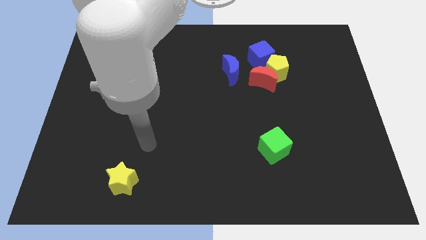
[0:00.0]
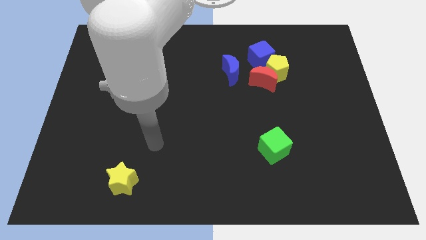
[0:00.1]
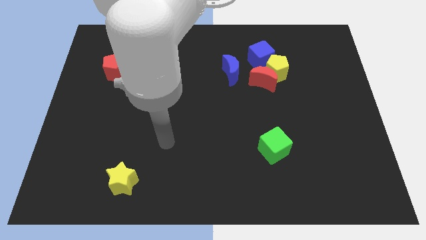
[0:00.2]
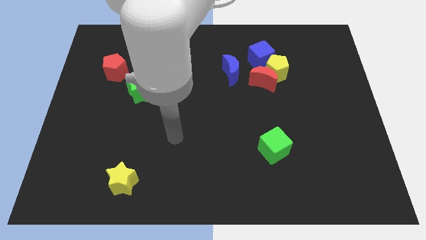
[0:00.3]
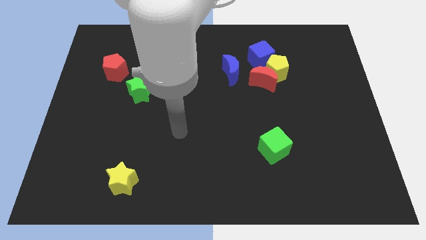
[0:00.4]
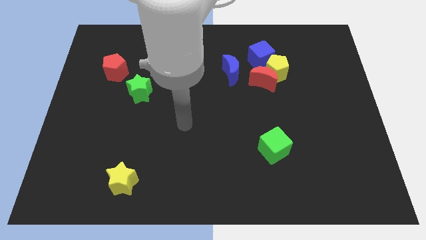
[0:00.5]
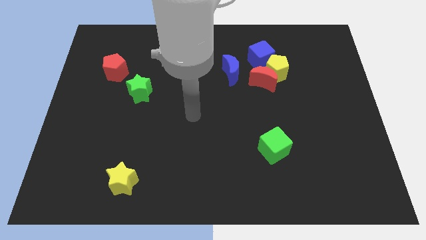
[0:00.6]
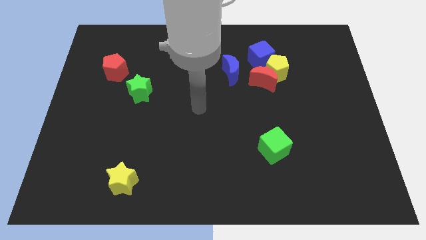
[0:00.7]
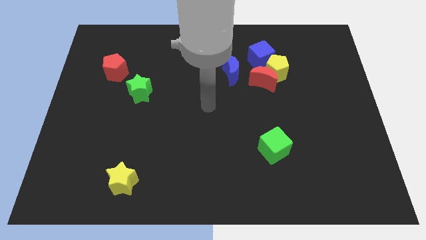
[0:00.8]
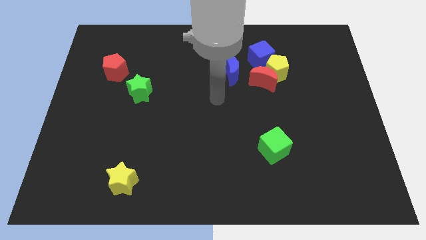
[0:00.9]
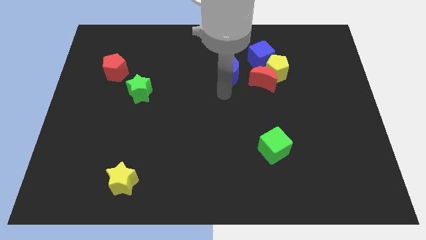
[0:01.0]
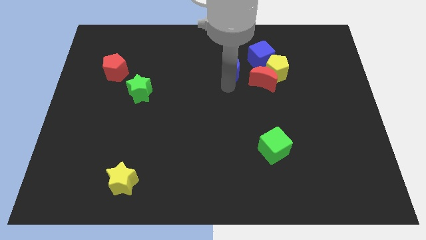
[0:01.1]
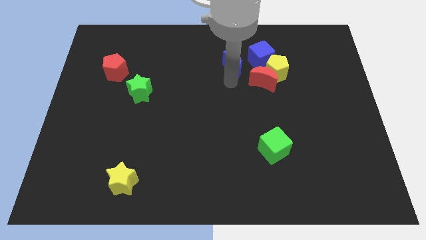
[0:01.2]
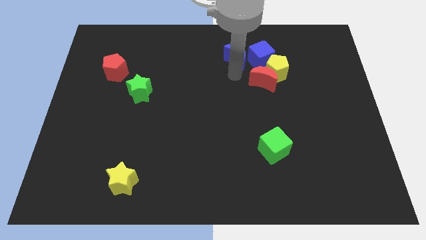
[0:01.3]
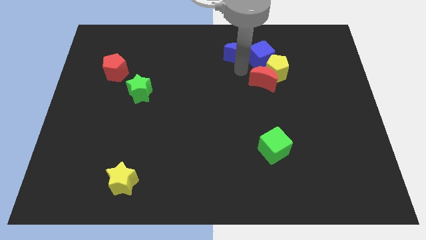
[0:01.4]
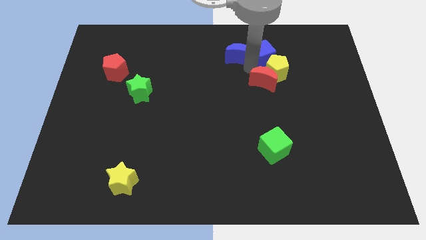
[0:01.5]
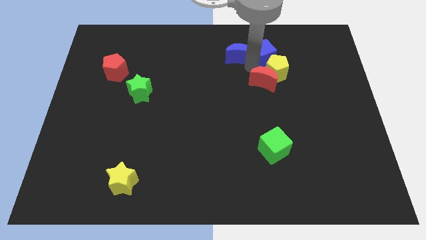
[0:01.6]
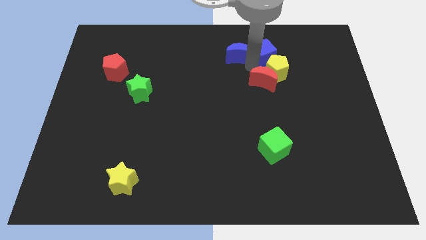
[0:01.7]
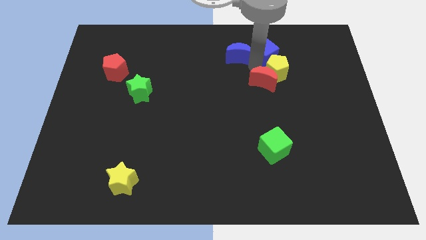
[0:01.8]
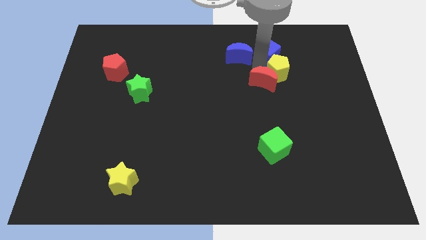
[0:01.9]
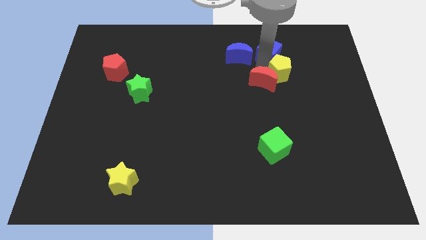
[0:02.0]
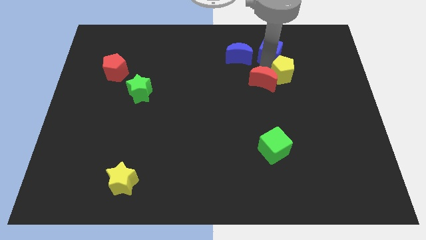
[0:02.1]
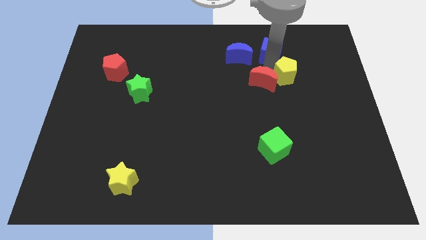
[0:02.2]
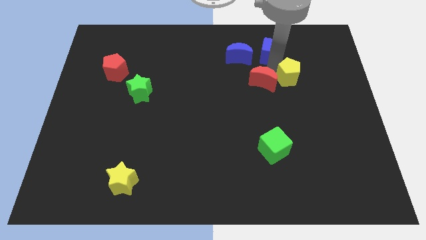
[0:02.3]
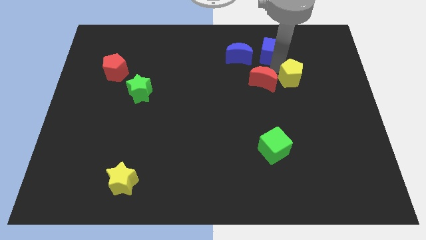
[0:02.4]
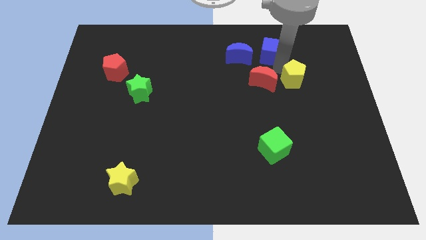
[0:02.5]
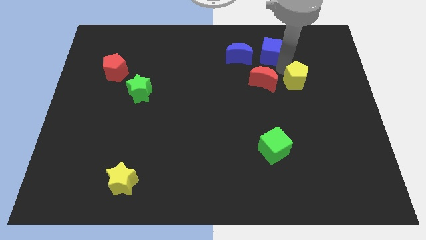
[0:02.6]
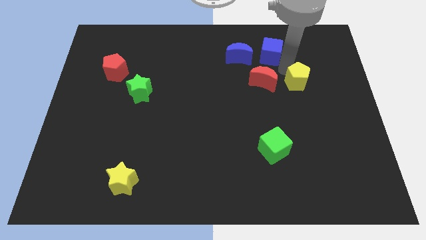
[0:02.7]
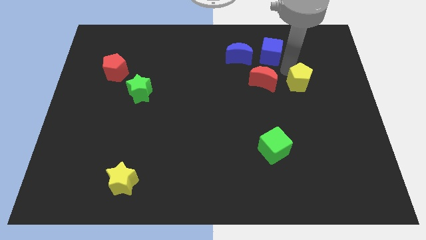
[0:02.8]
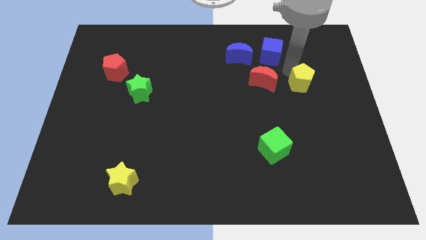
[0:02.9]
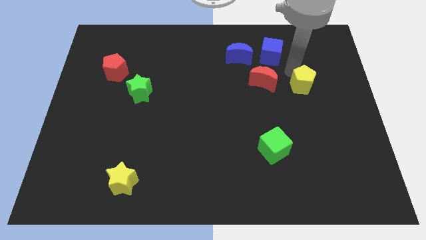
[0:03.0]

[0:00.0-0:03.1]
pull the yellow pentagon apart from the red moon and blue cube

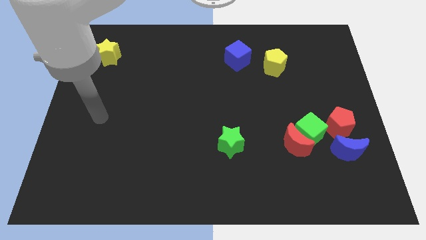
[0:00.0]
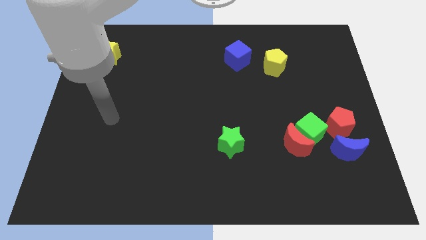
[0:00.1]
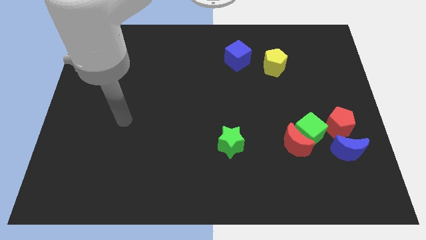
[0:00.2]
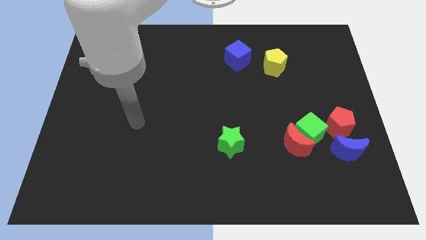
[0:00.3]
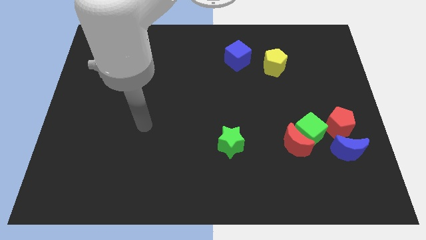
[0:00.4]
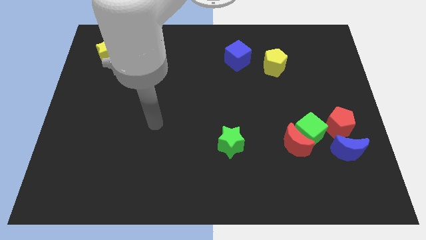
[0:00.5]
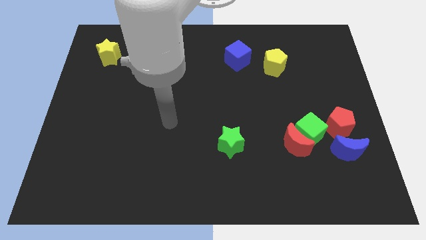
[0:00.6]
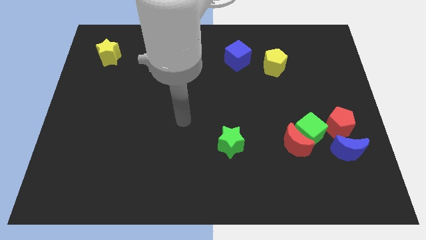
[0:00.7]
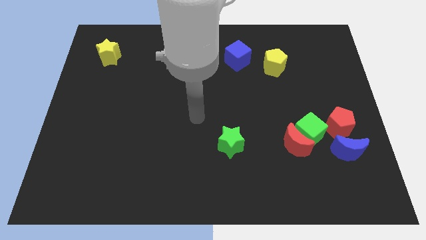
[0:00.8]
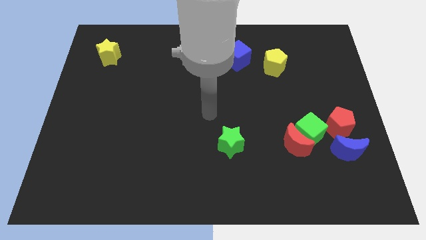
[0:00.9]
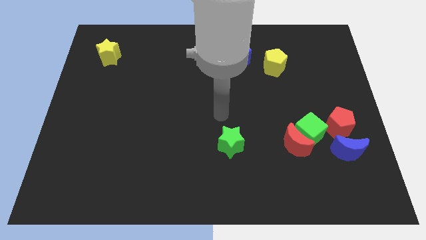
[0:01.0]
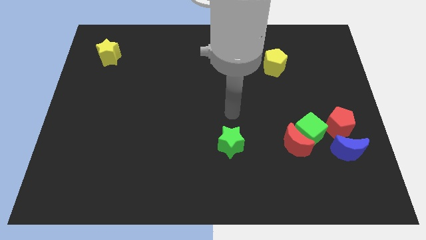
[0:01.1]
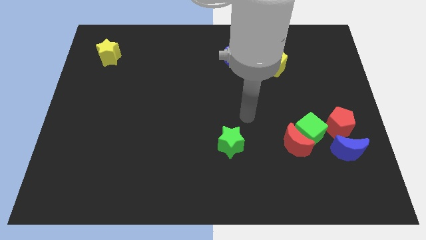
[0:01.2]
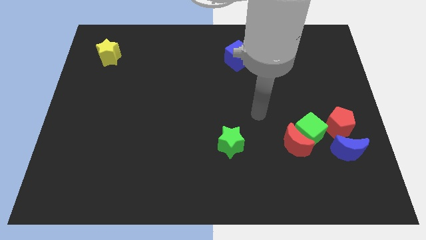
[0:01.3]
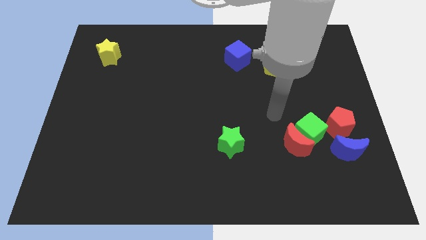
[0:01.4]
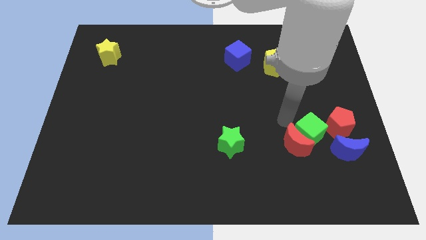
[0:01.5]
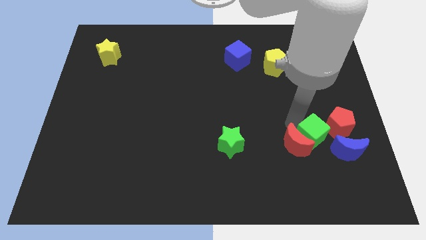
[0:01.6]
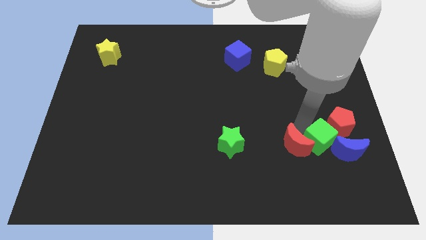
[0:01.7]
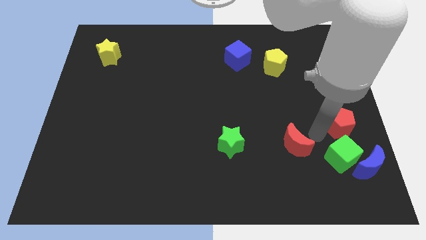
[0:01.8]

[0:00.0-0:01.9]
pull the red moon apart from the green cube

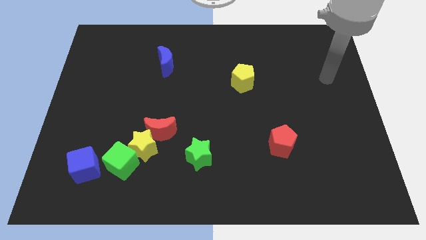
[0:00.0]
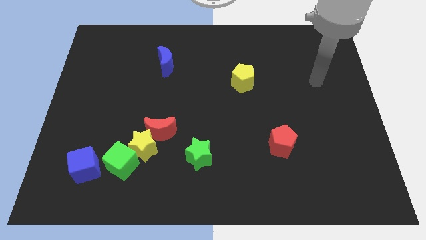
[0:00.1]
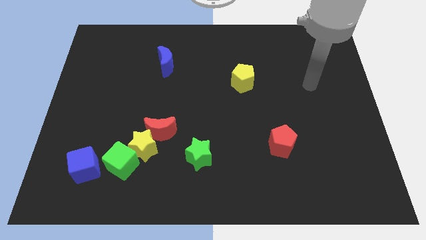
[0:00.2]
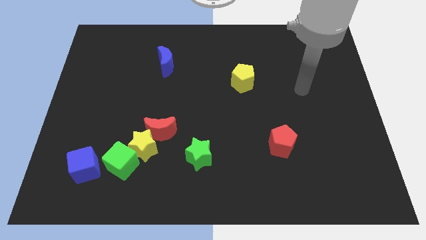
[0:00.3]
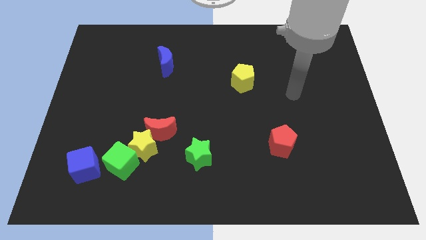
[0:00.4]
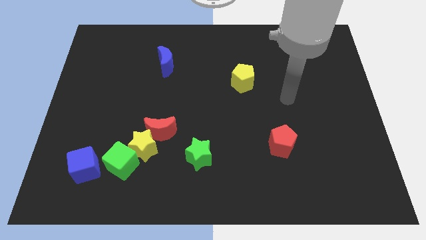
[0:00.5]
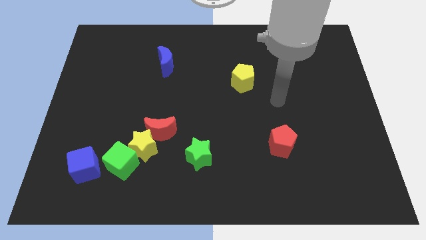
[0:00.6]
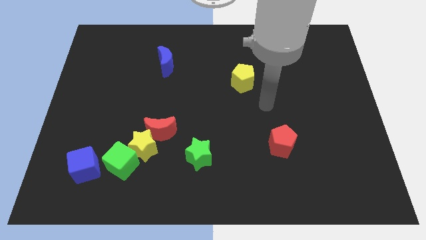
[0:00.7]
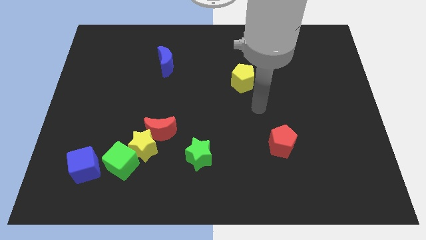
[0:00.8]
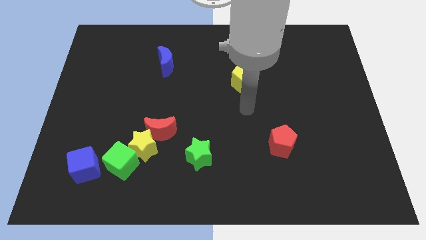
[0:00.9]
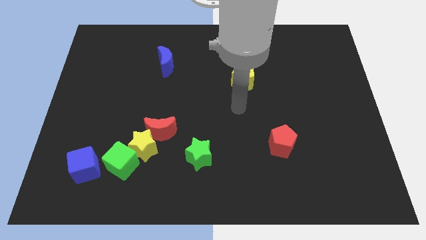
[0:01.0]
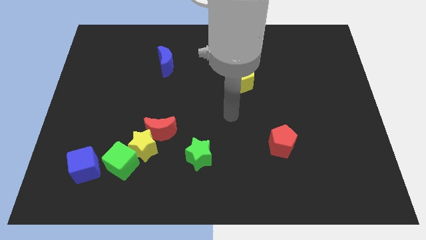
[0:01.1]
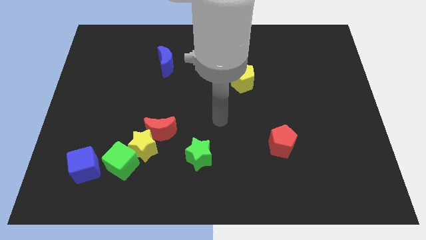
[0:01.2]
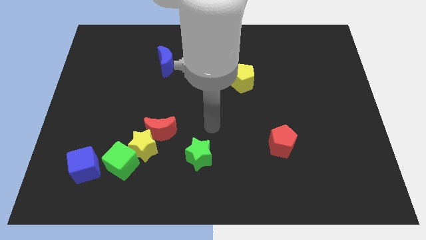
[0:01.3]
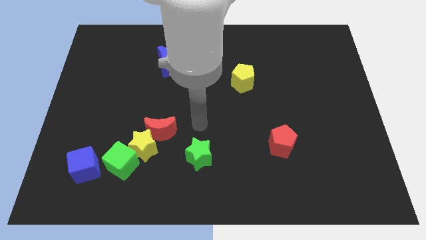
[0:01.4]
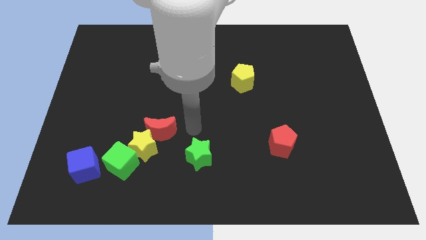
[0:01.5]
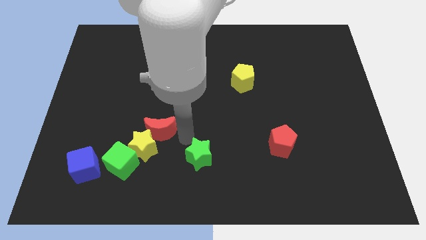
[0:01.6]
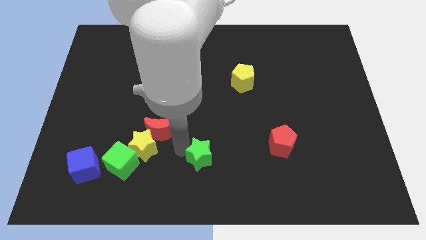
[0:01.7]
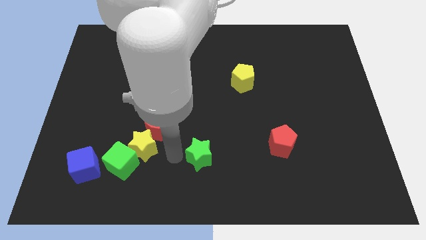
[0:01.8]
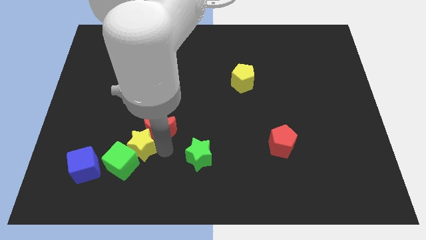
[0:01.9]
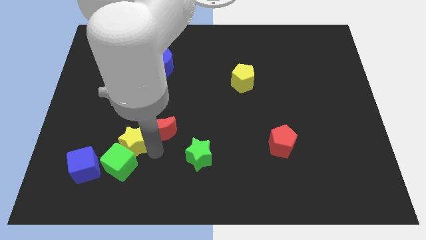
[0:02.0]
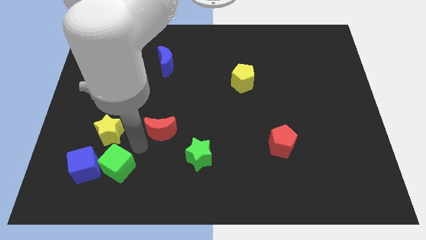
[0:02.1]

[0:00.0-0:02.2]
move the red moon away from the yellow star

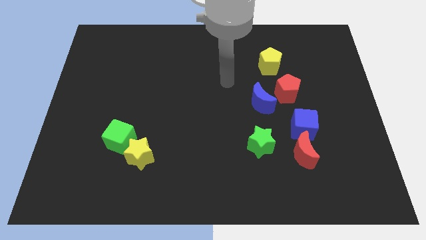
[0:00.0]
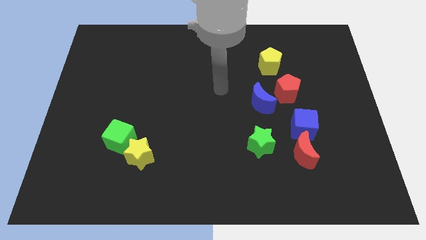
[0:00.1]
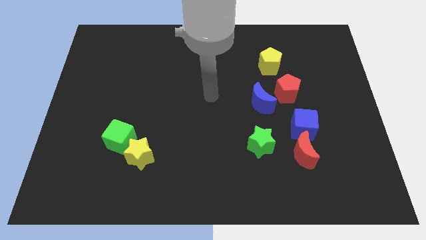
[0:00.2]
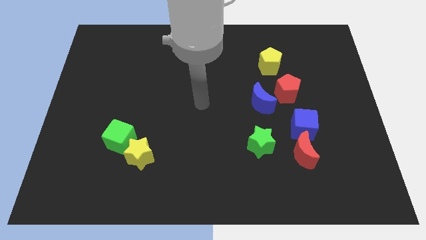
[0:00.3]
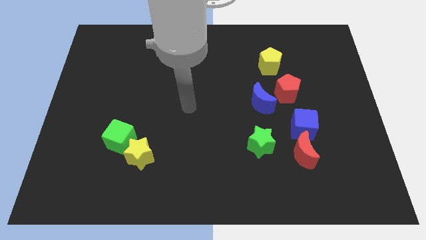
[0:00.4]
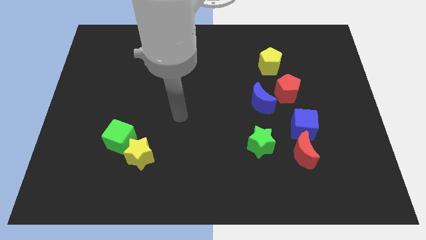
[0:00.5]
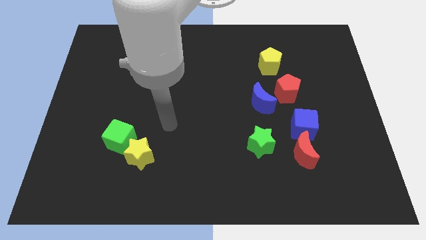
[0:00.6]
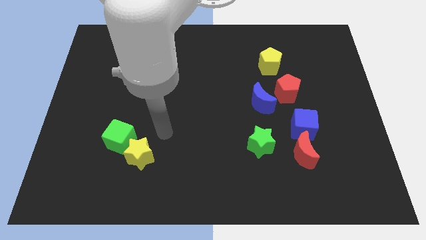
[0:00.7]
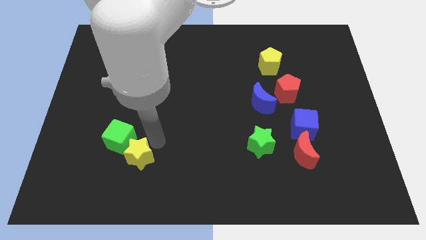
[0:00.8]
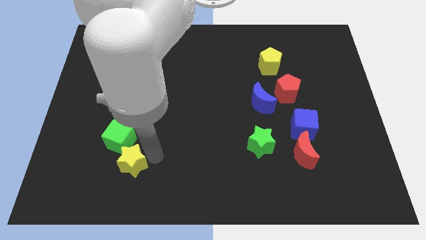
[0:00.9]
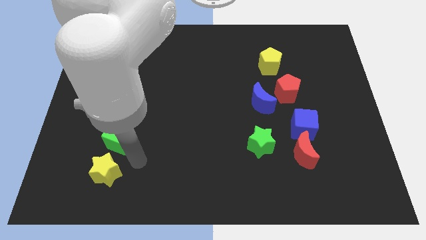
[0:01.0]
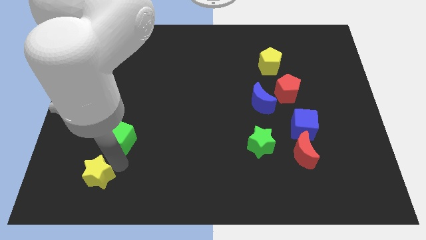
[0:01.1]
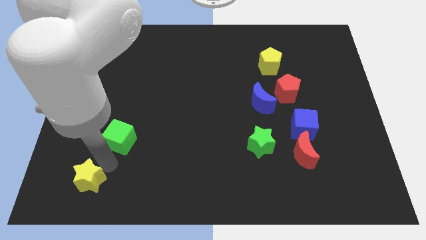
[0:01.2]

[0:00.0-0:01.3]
separate the green cube from the yellow star

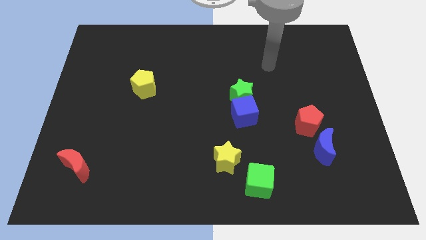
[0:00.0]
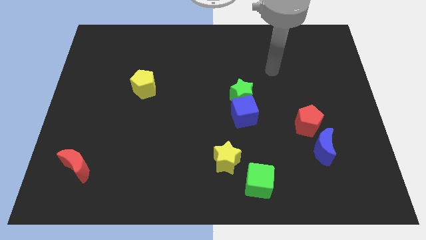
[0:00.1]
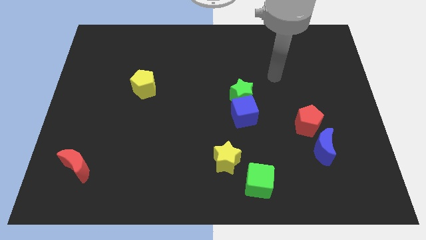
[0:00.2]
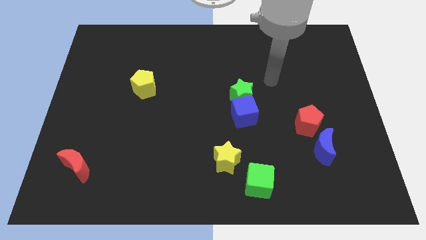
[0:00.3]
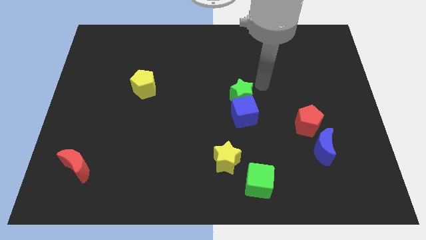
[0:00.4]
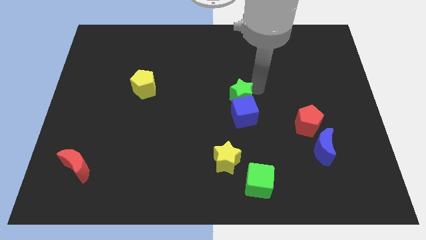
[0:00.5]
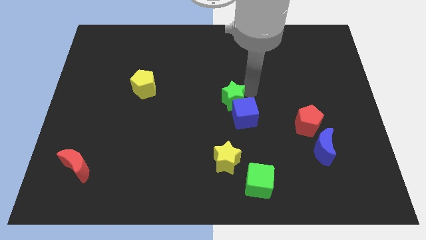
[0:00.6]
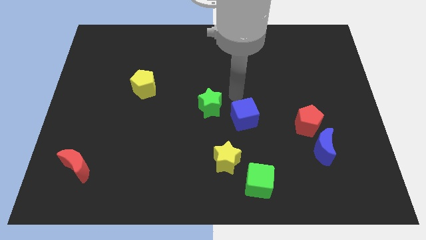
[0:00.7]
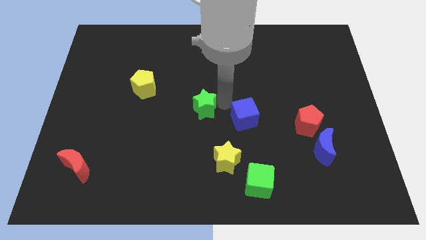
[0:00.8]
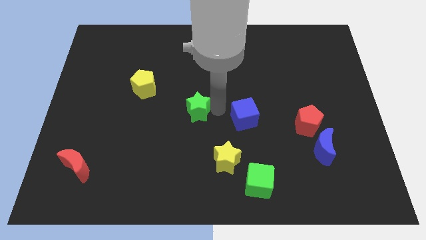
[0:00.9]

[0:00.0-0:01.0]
pull the blue cube apart from the green star
